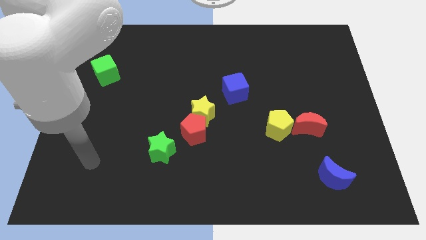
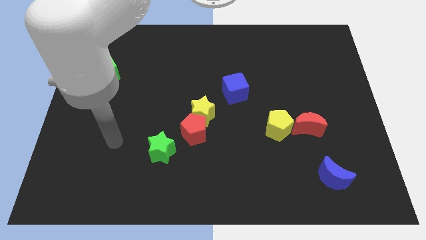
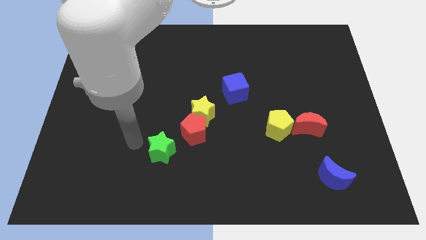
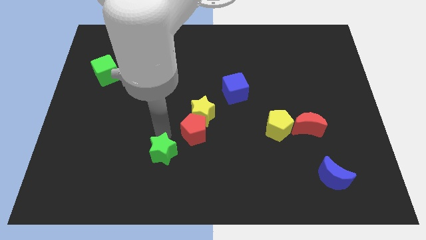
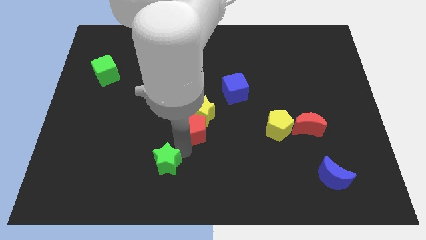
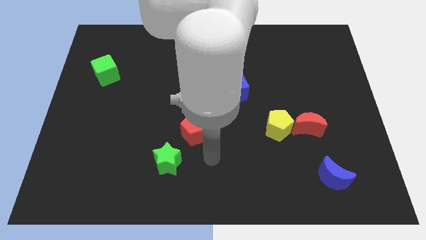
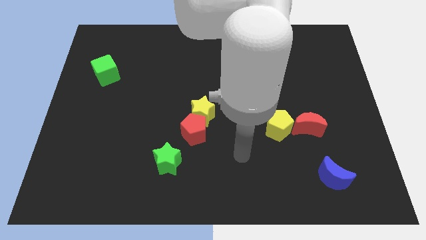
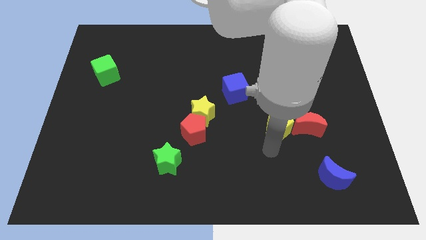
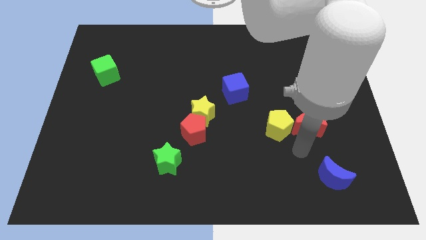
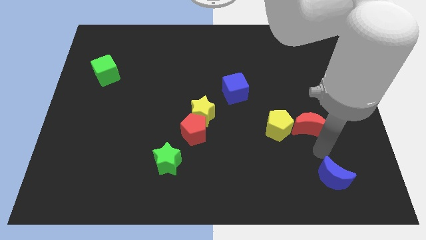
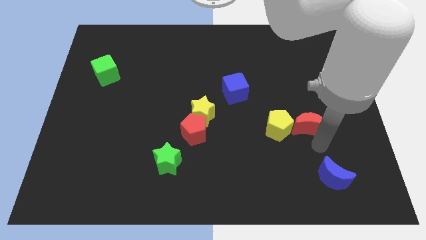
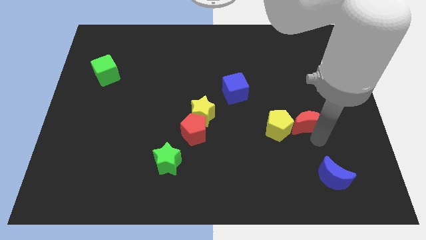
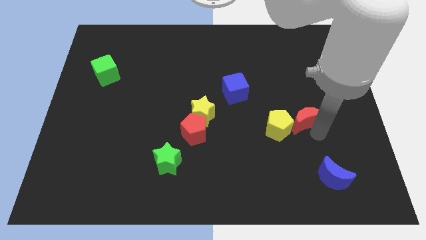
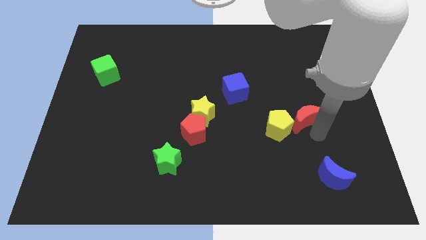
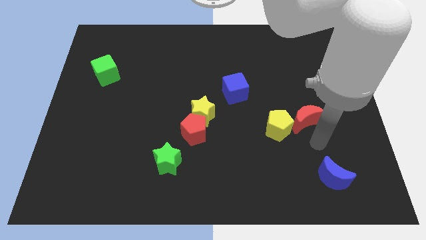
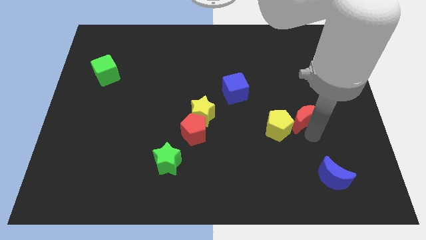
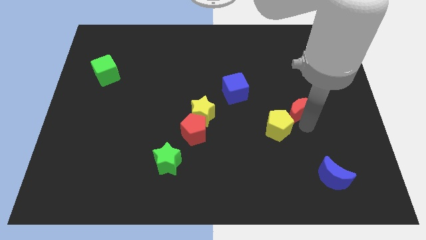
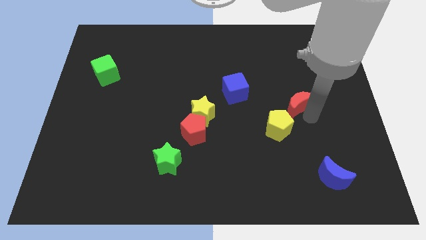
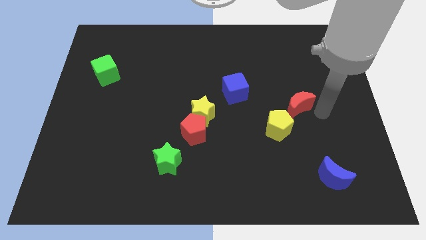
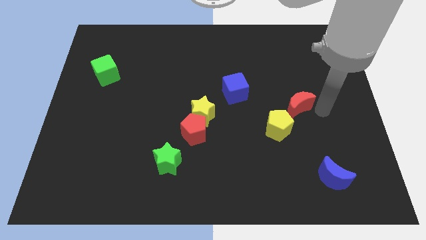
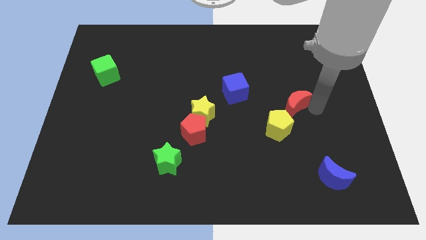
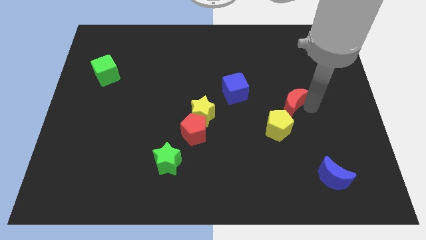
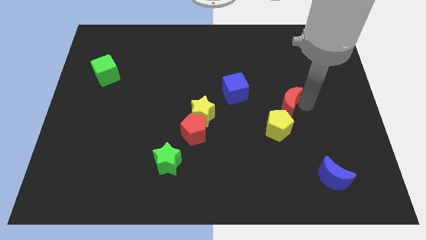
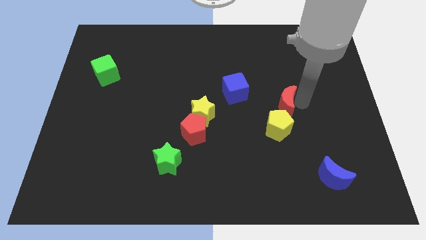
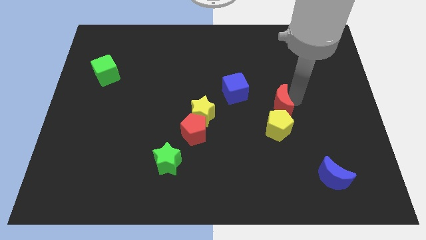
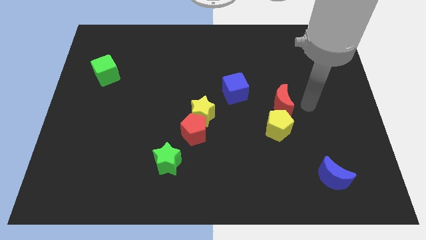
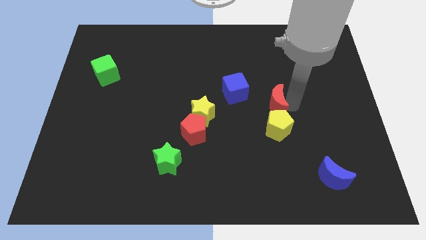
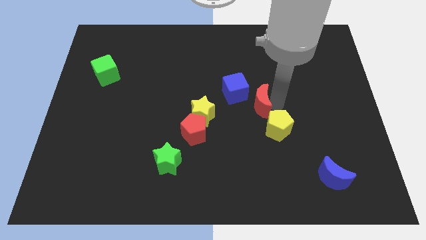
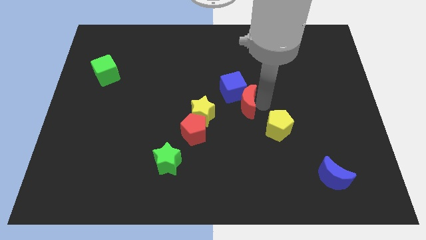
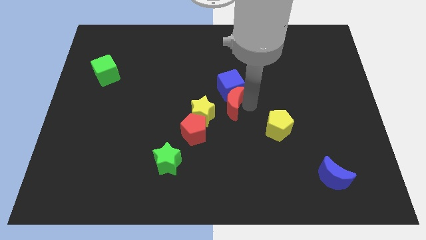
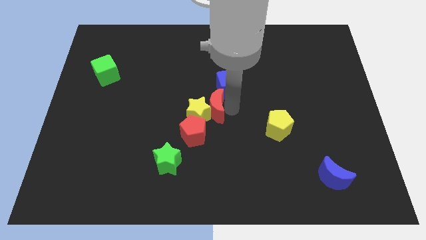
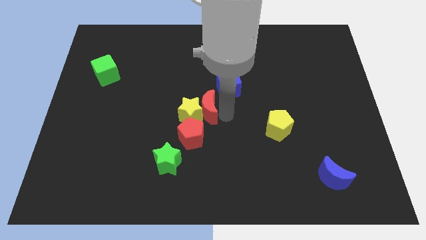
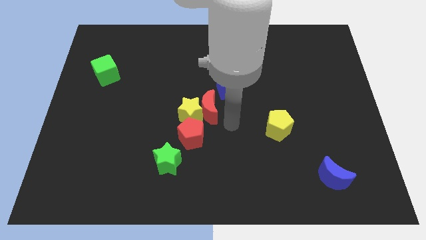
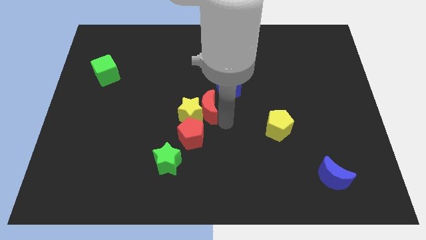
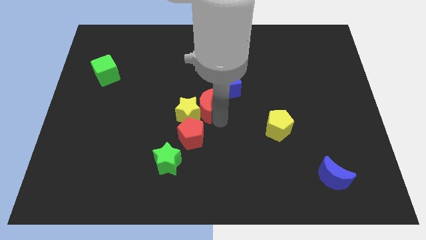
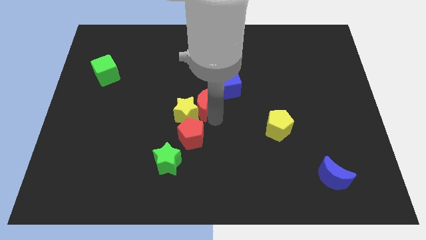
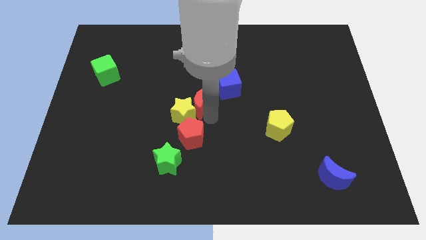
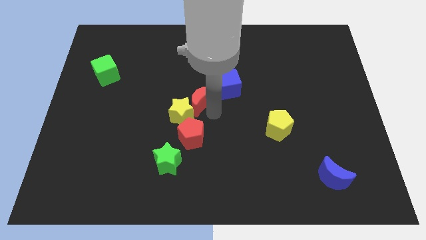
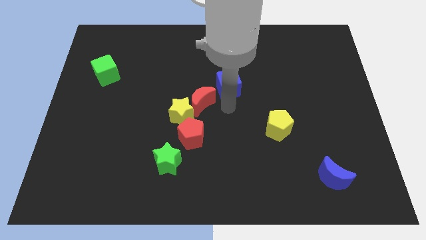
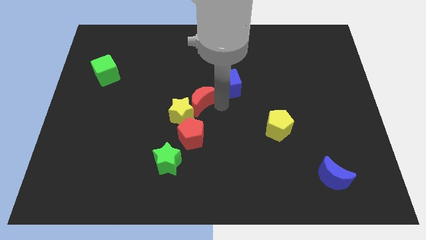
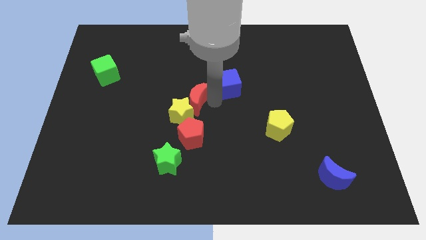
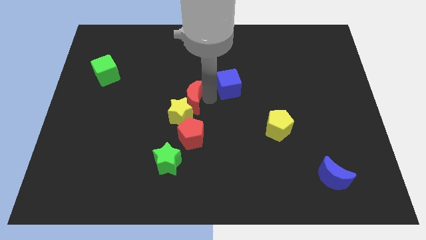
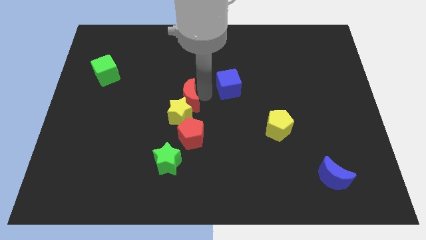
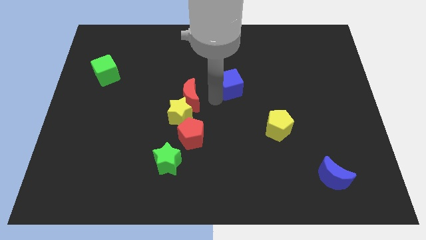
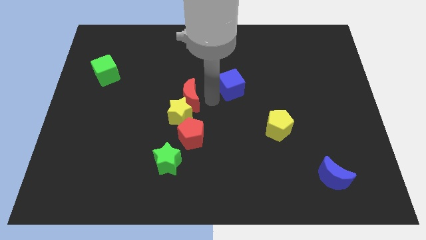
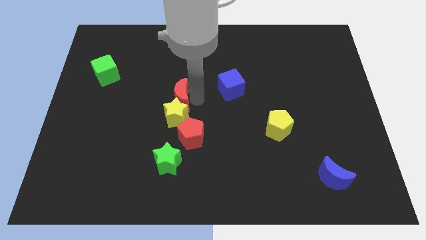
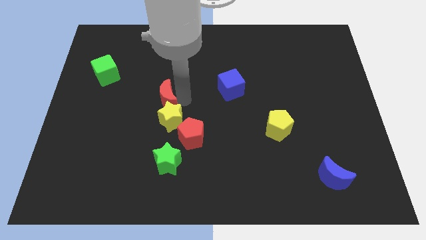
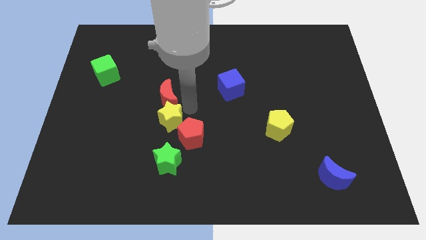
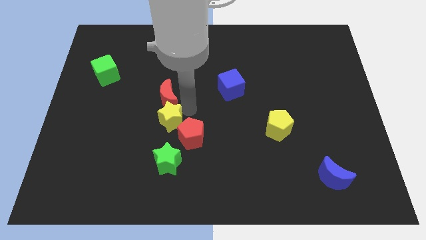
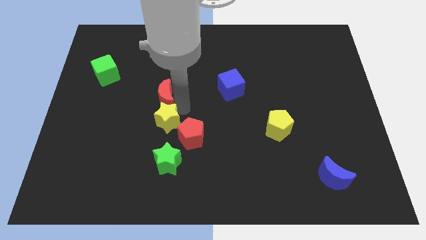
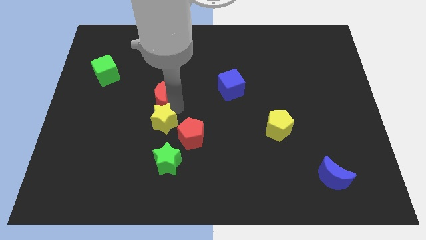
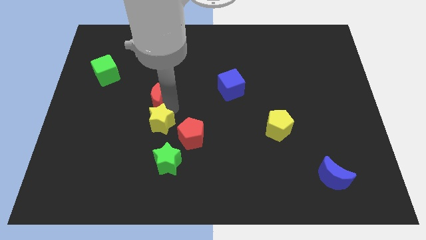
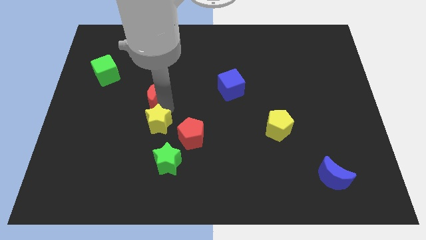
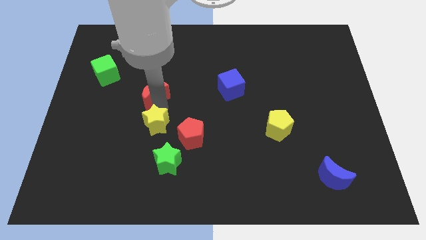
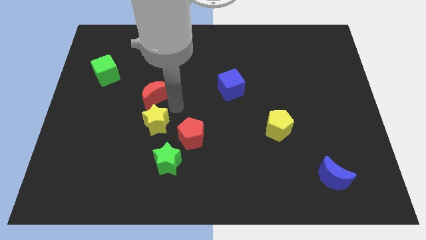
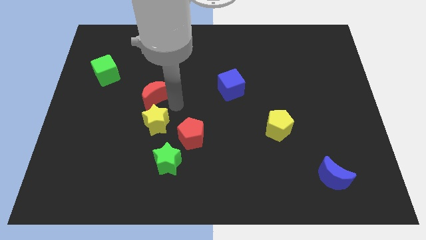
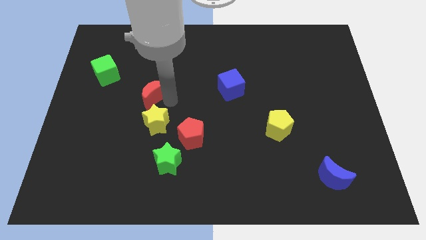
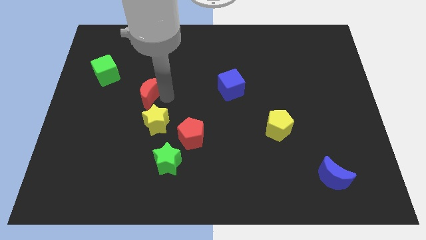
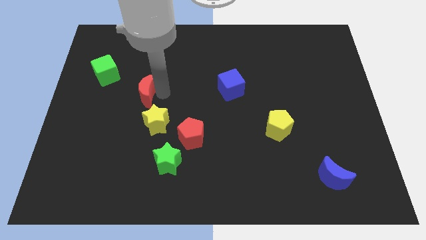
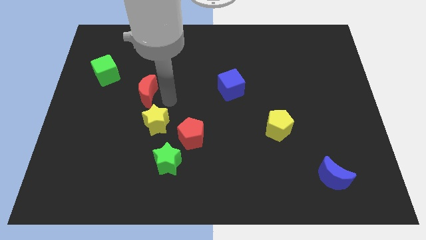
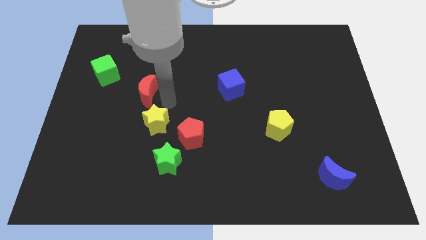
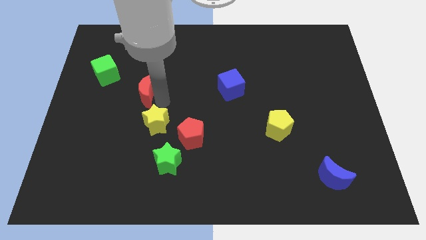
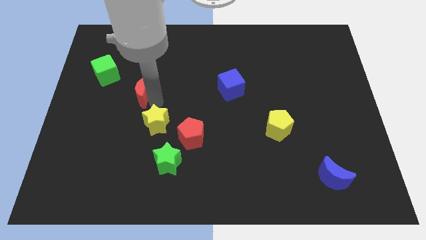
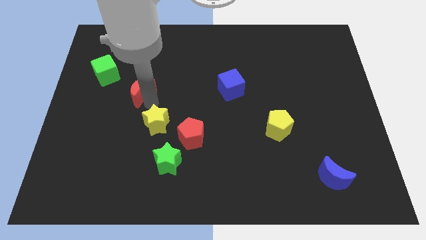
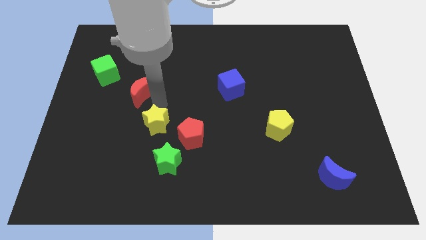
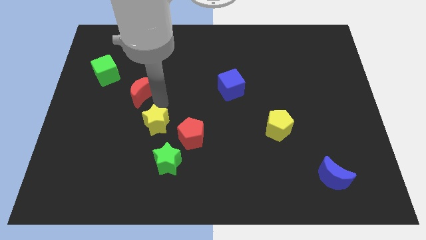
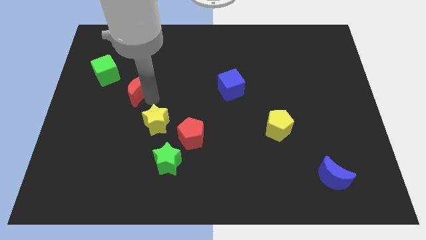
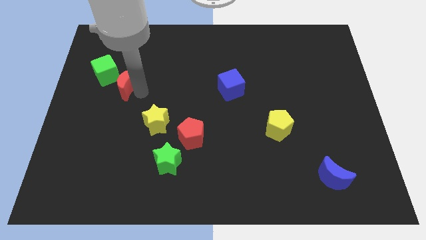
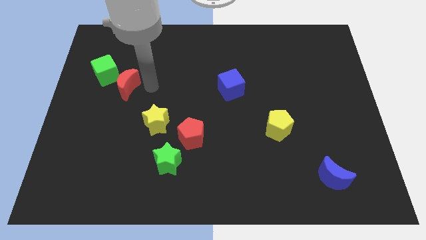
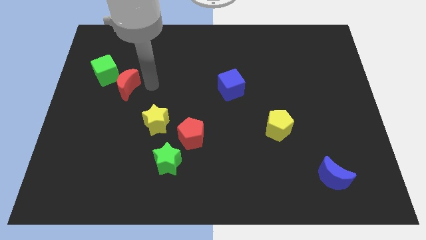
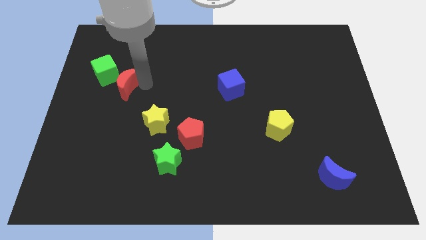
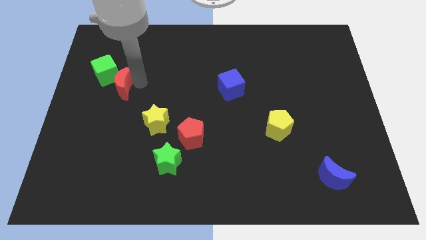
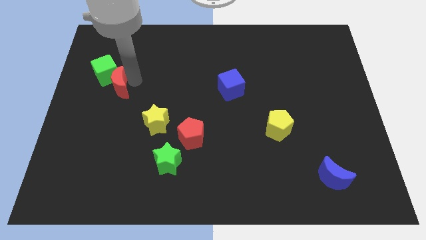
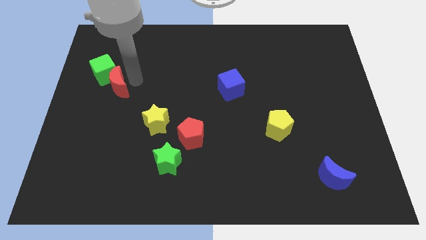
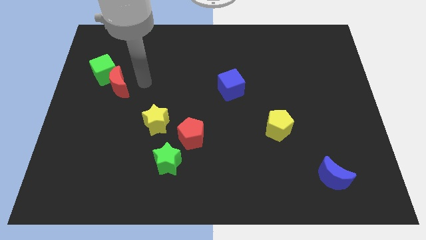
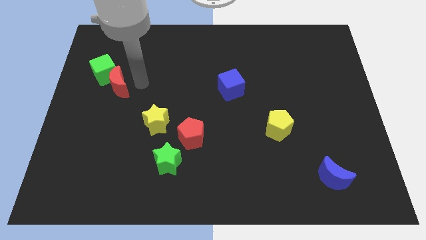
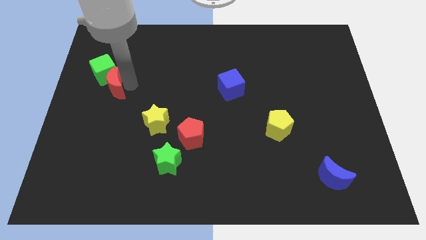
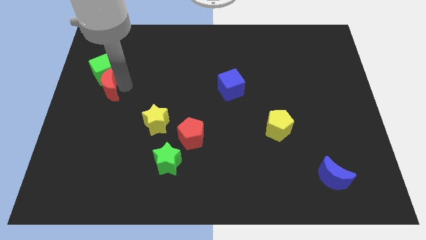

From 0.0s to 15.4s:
push the red moon to the left side of the board
